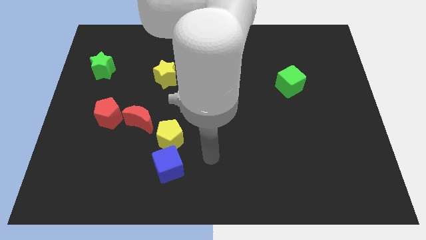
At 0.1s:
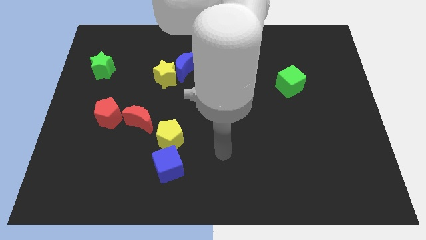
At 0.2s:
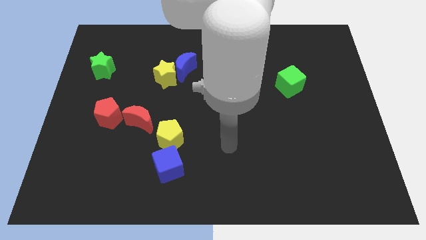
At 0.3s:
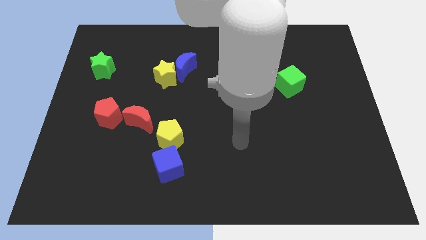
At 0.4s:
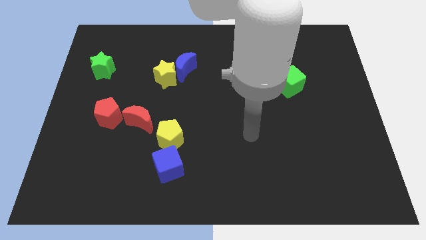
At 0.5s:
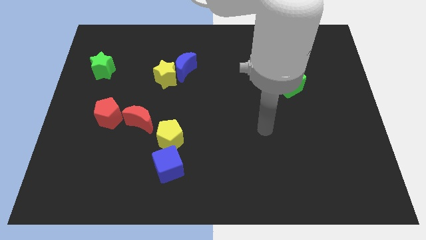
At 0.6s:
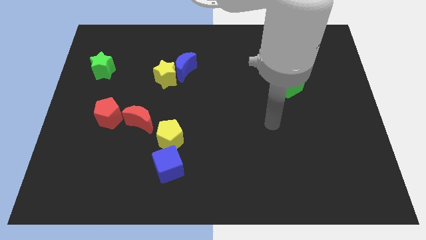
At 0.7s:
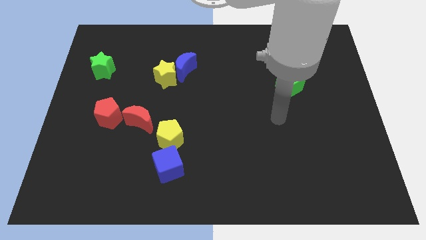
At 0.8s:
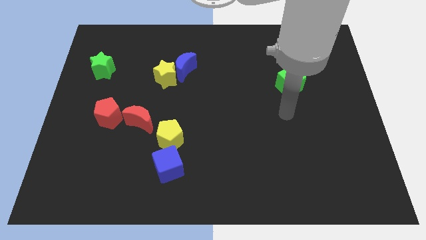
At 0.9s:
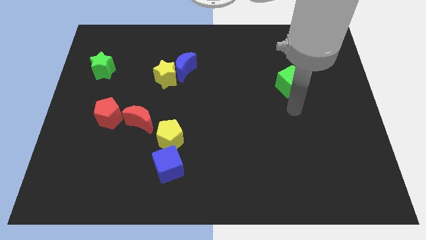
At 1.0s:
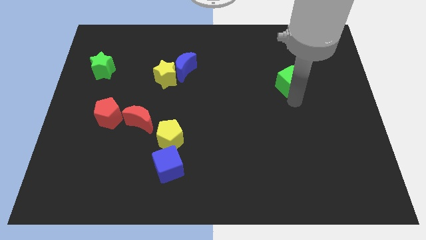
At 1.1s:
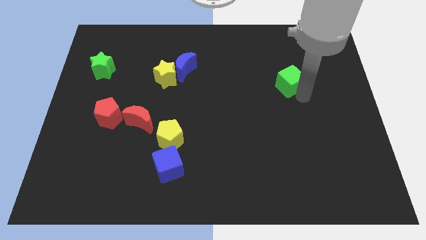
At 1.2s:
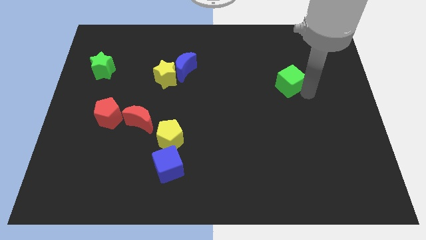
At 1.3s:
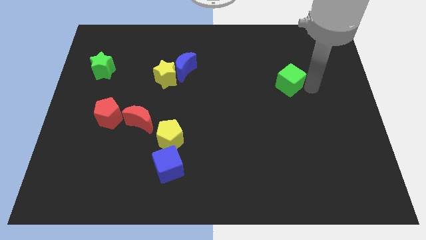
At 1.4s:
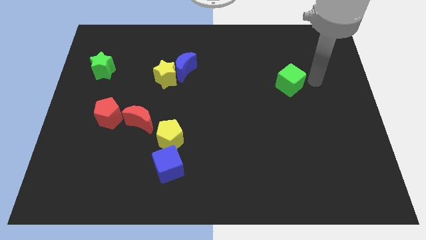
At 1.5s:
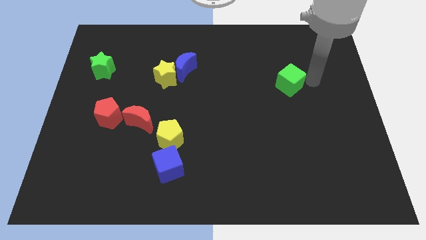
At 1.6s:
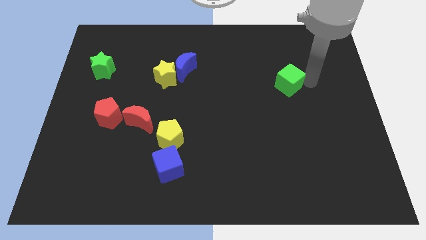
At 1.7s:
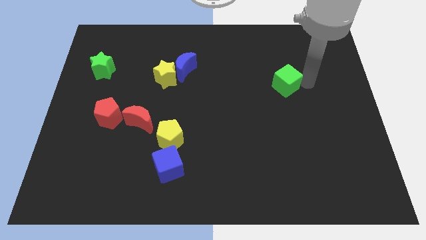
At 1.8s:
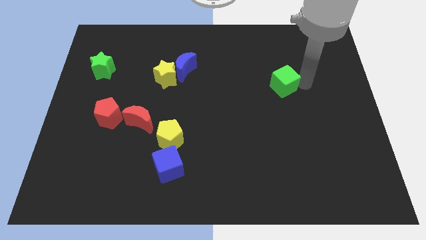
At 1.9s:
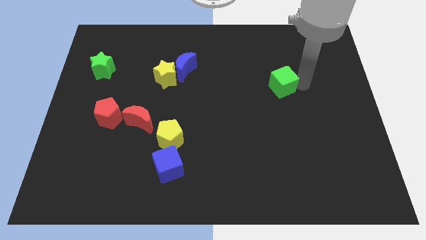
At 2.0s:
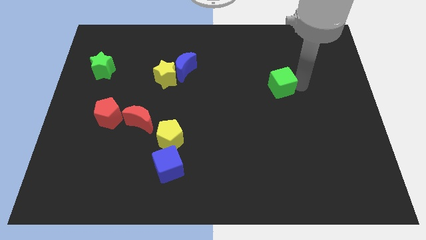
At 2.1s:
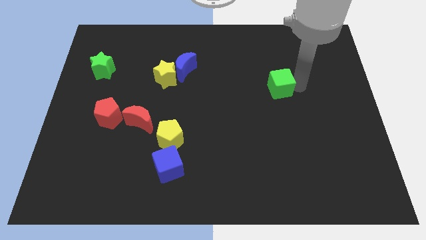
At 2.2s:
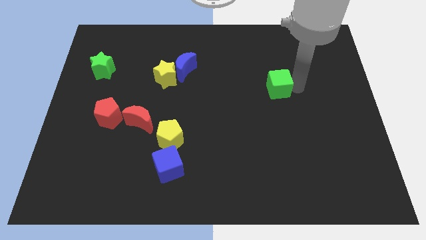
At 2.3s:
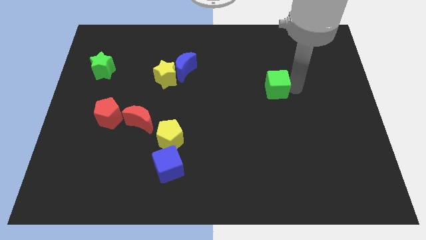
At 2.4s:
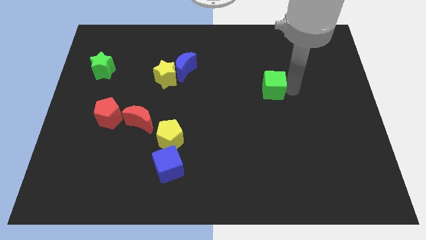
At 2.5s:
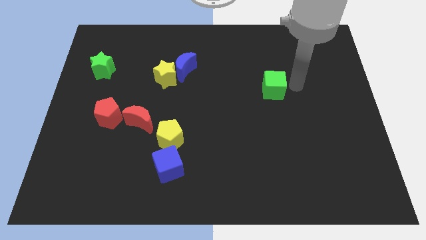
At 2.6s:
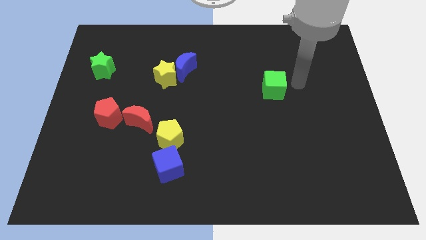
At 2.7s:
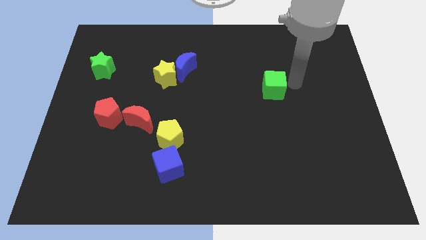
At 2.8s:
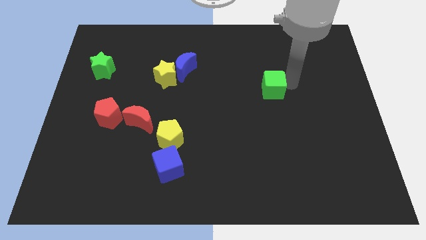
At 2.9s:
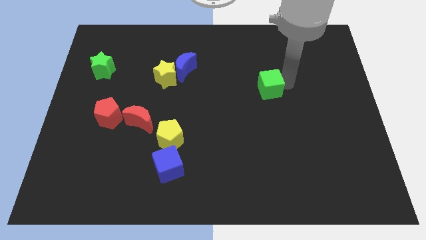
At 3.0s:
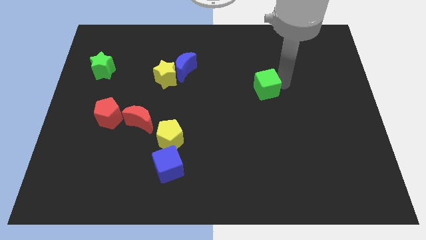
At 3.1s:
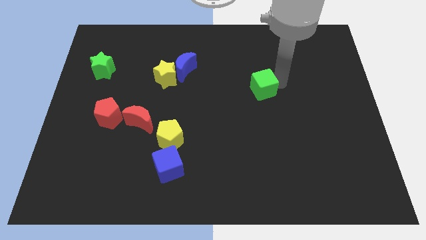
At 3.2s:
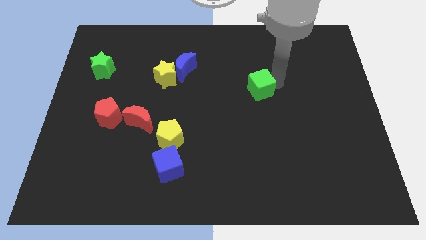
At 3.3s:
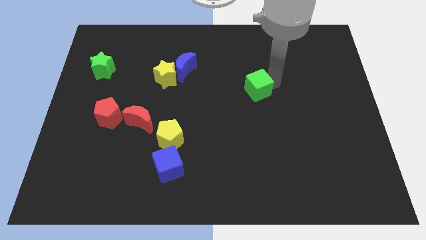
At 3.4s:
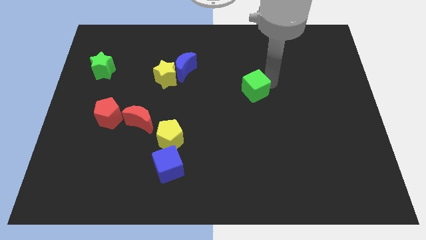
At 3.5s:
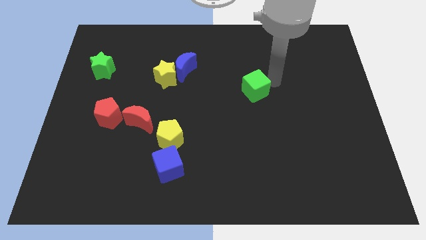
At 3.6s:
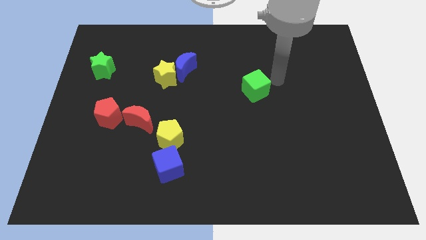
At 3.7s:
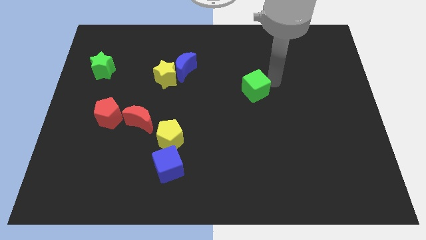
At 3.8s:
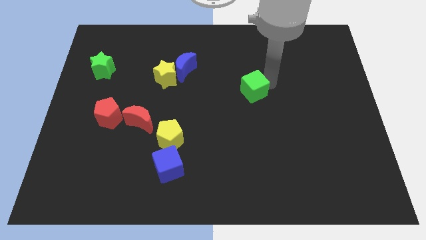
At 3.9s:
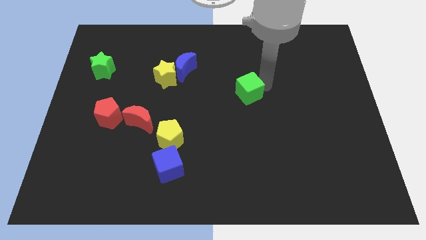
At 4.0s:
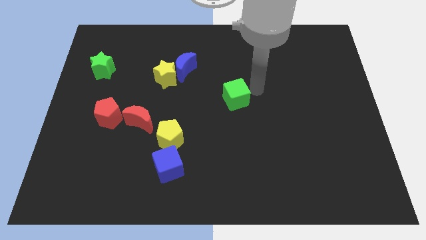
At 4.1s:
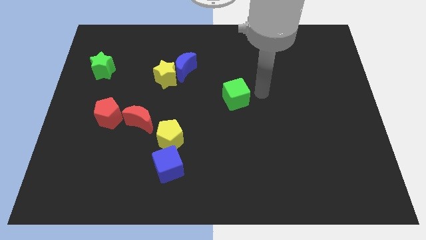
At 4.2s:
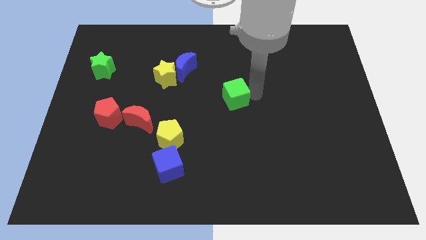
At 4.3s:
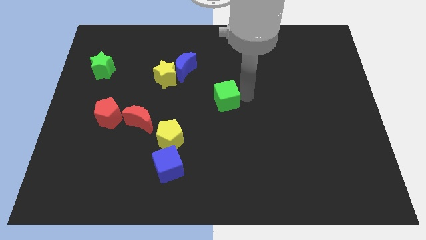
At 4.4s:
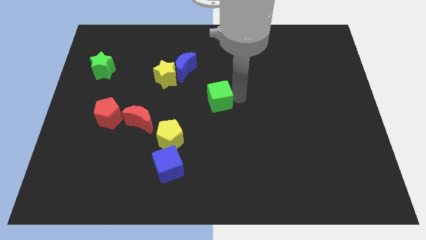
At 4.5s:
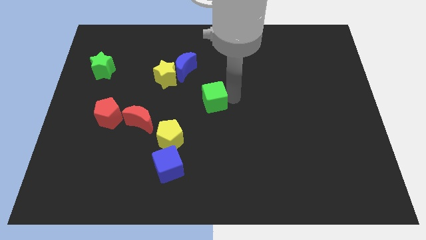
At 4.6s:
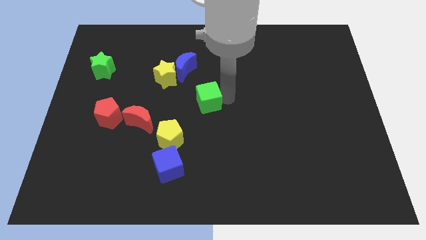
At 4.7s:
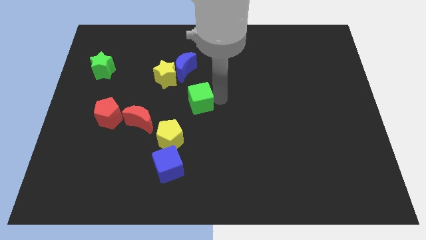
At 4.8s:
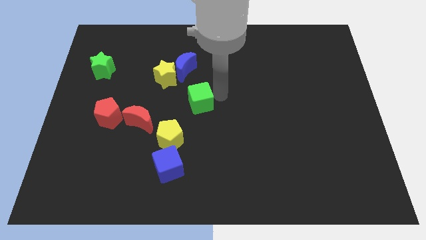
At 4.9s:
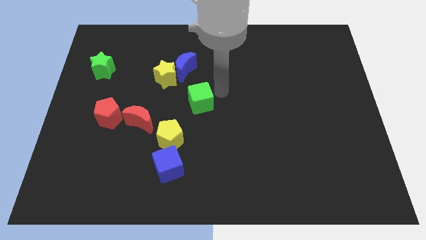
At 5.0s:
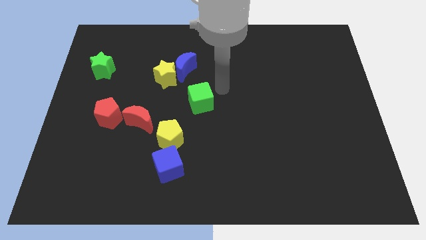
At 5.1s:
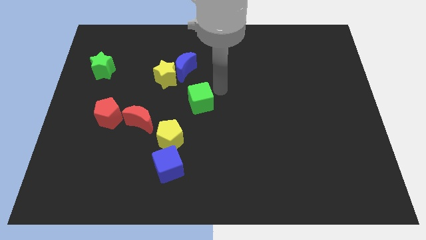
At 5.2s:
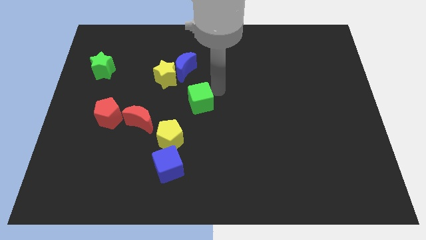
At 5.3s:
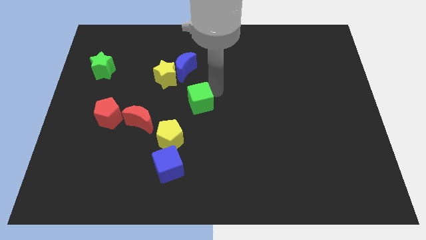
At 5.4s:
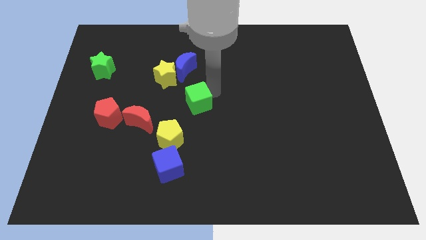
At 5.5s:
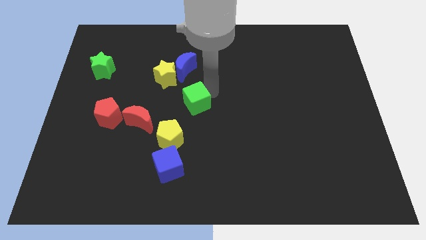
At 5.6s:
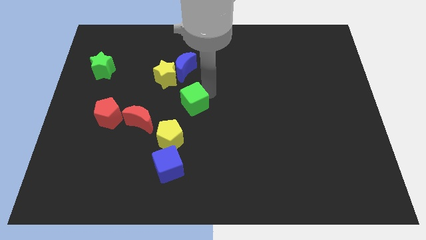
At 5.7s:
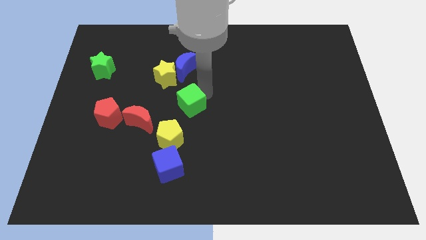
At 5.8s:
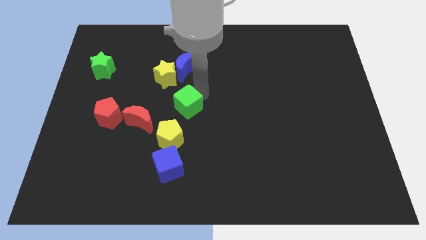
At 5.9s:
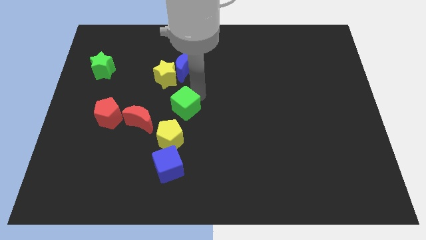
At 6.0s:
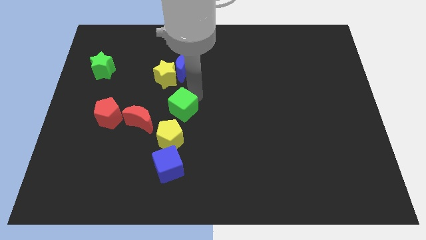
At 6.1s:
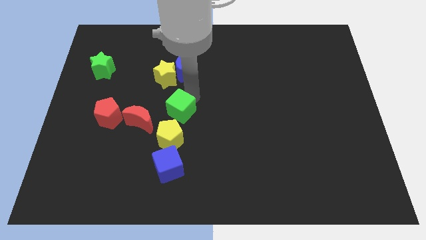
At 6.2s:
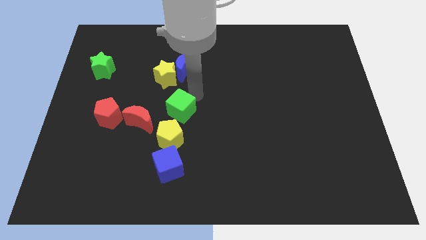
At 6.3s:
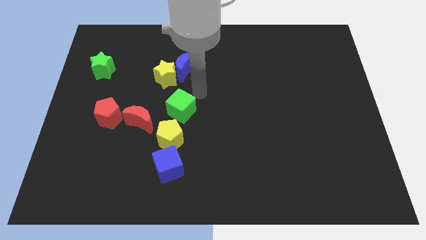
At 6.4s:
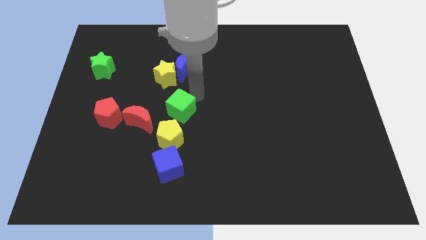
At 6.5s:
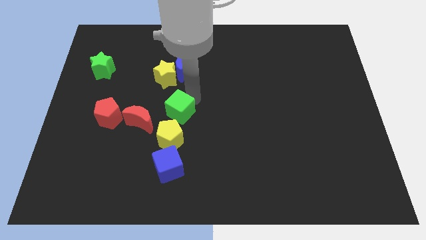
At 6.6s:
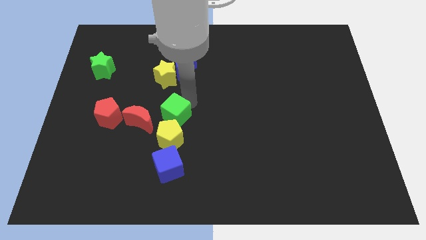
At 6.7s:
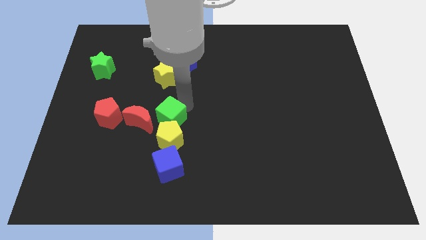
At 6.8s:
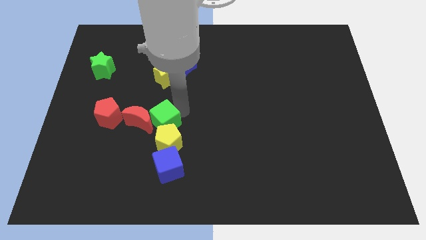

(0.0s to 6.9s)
put the green cube to the red moon
